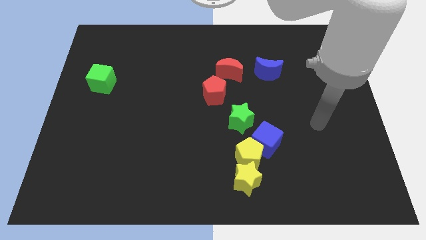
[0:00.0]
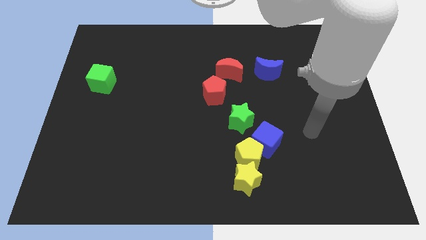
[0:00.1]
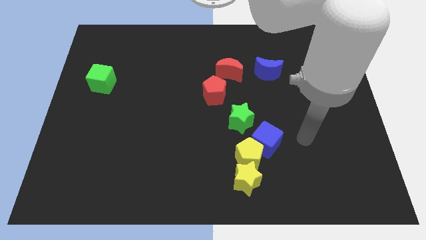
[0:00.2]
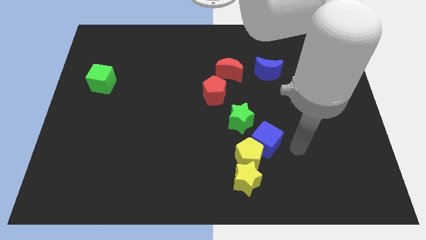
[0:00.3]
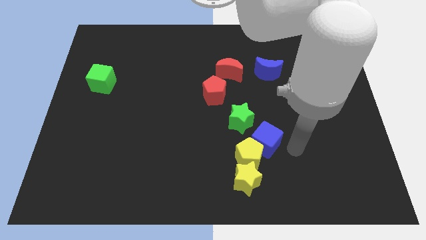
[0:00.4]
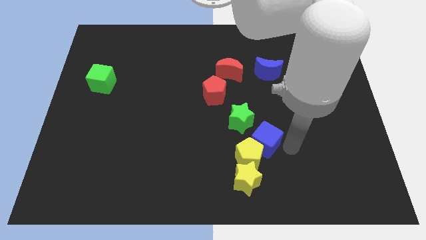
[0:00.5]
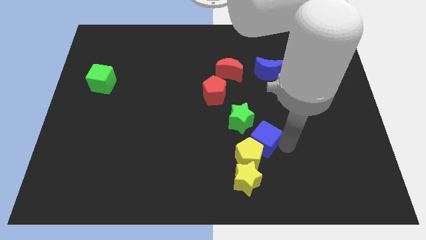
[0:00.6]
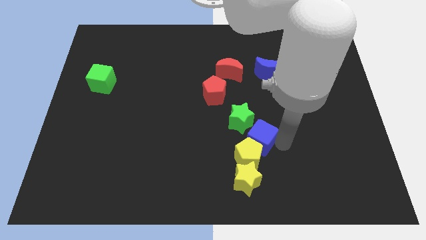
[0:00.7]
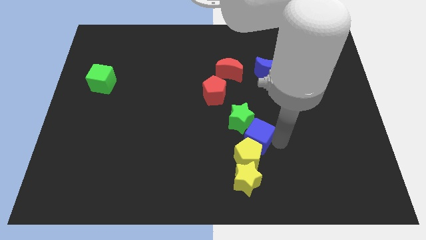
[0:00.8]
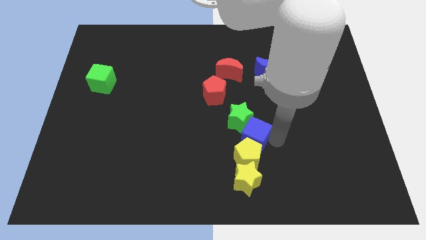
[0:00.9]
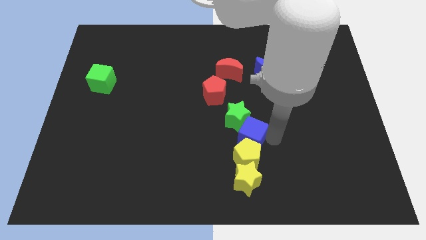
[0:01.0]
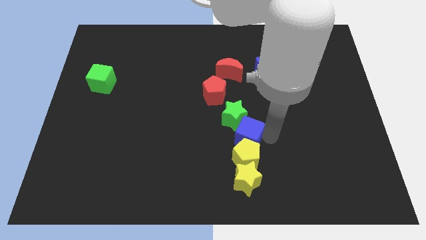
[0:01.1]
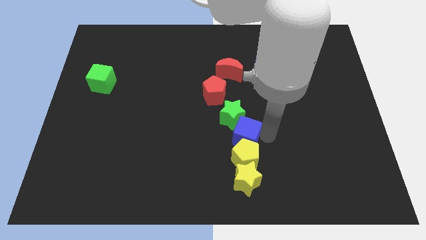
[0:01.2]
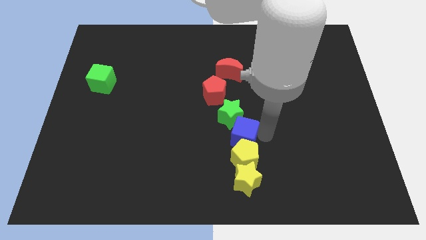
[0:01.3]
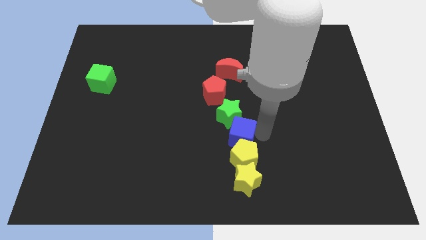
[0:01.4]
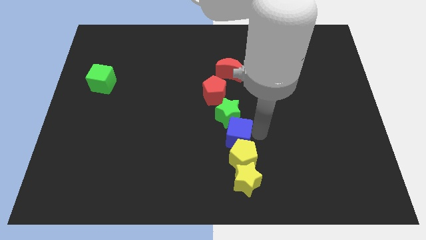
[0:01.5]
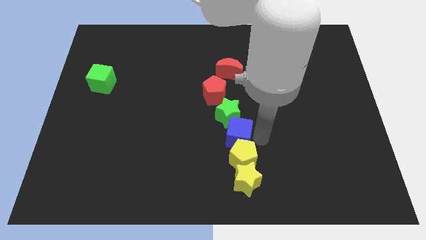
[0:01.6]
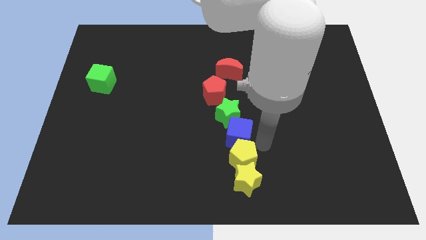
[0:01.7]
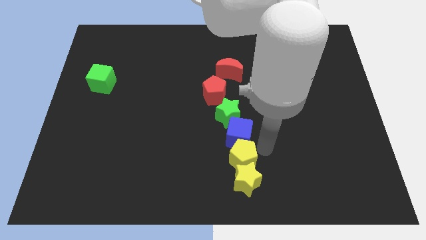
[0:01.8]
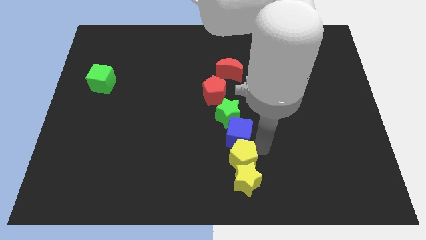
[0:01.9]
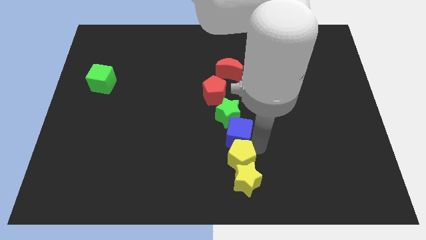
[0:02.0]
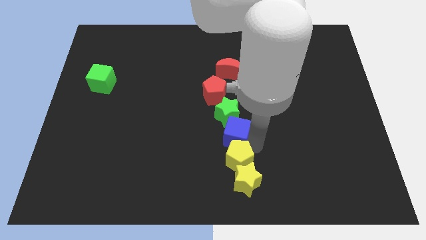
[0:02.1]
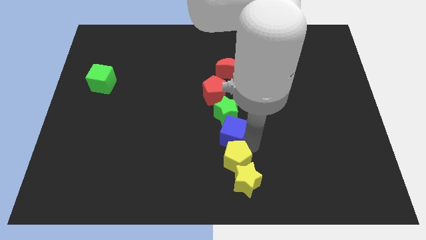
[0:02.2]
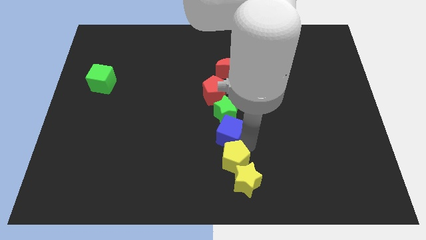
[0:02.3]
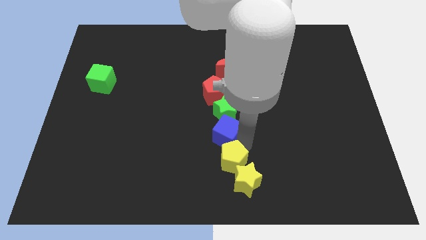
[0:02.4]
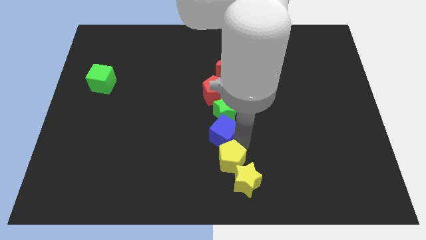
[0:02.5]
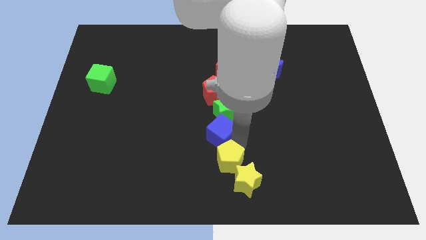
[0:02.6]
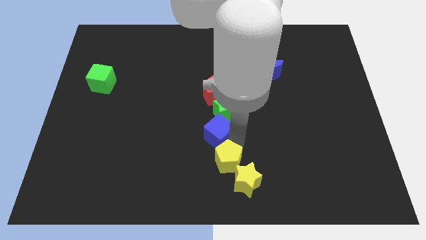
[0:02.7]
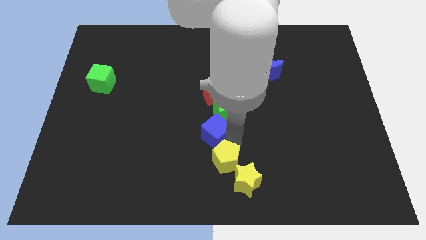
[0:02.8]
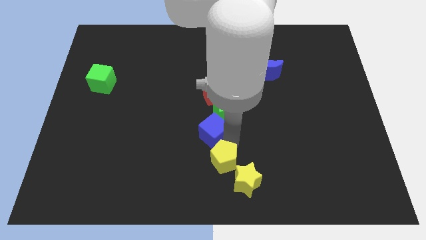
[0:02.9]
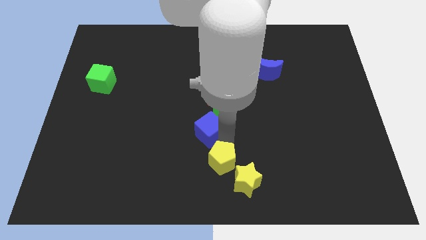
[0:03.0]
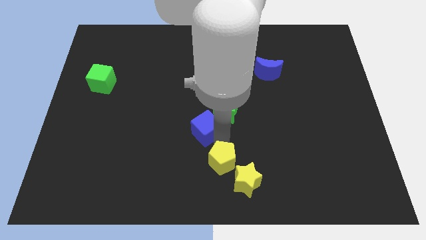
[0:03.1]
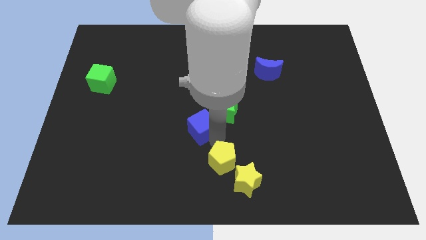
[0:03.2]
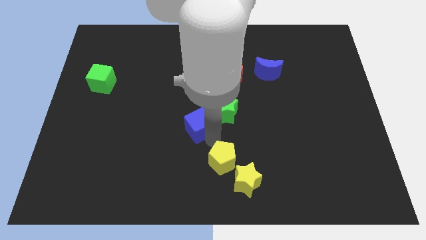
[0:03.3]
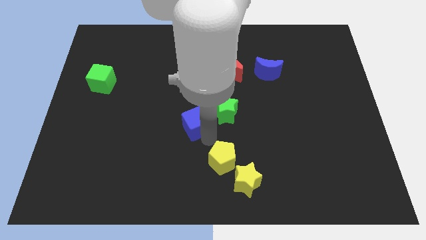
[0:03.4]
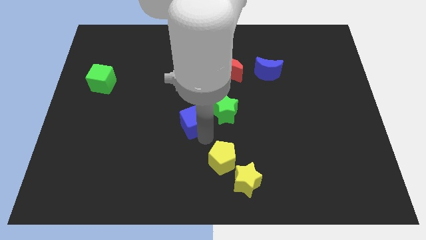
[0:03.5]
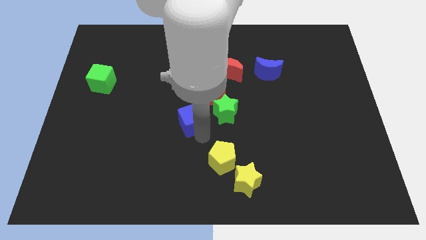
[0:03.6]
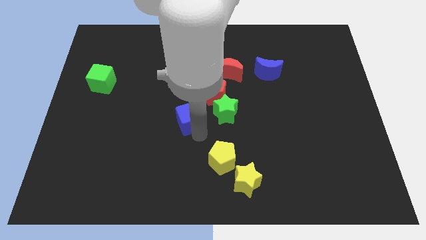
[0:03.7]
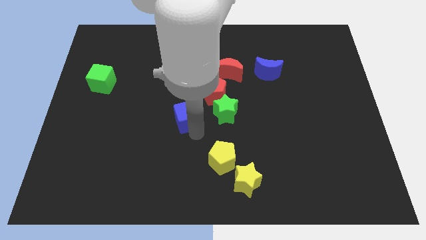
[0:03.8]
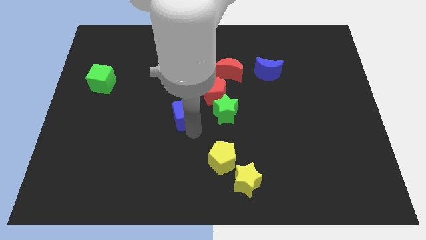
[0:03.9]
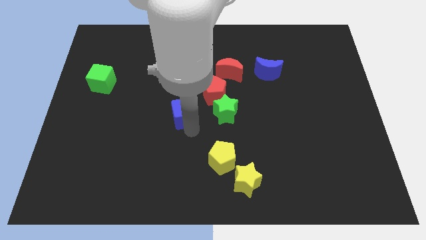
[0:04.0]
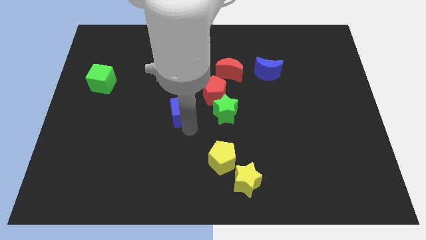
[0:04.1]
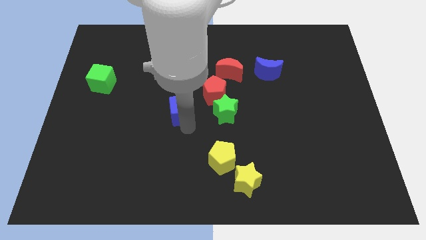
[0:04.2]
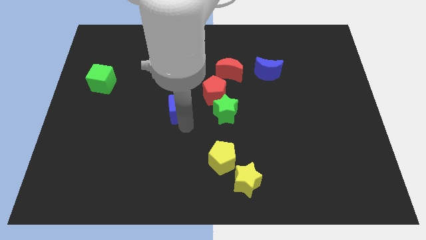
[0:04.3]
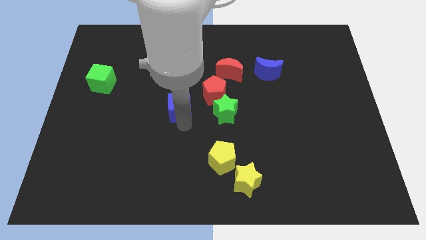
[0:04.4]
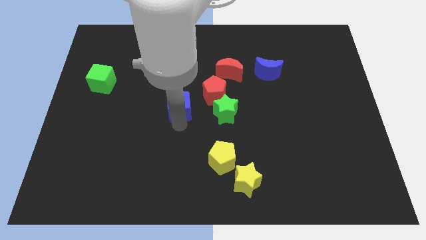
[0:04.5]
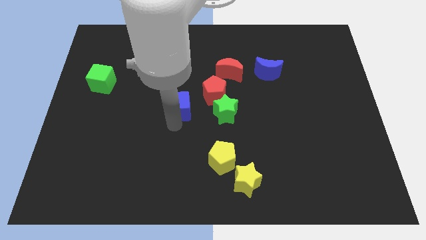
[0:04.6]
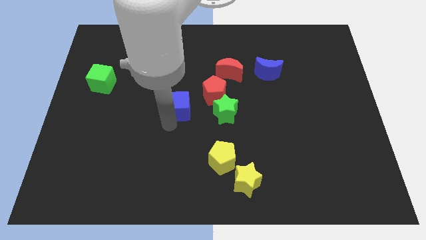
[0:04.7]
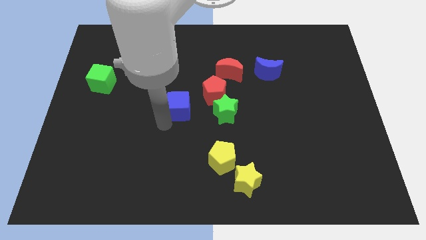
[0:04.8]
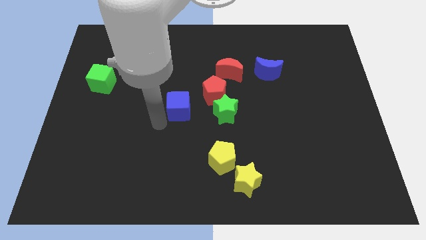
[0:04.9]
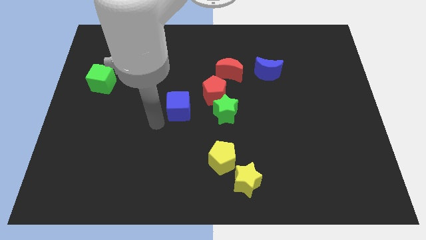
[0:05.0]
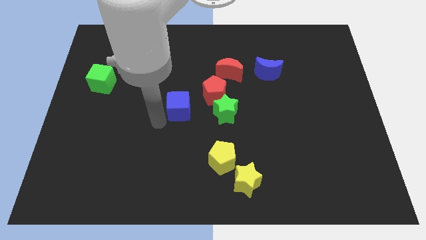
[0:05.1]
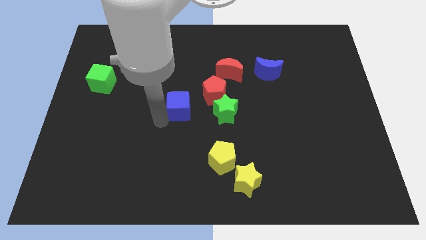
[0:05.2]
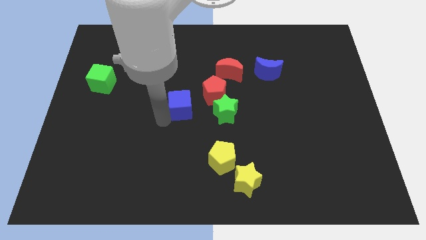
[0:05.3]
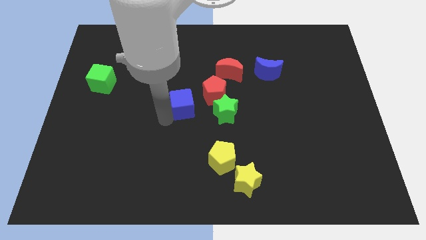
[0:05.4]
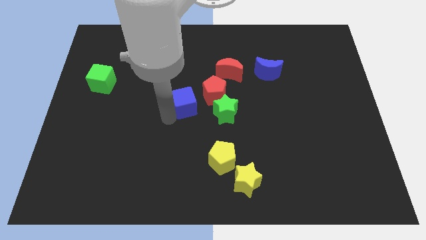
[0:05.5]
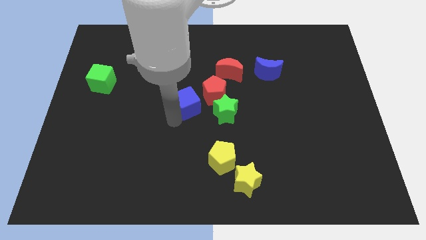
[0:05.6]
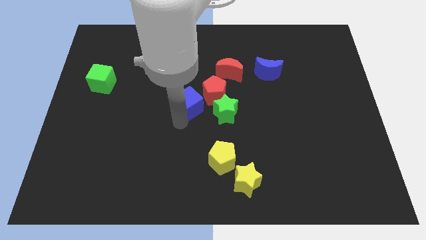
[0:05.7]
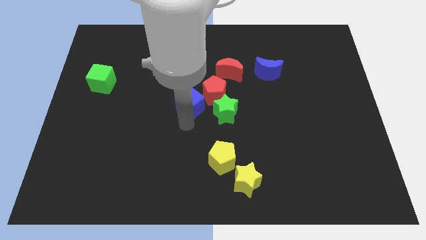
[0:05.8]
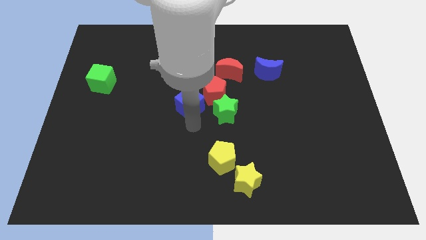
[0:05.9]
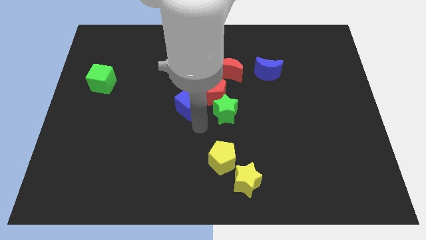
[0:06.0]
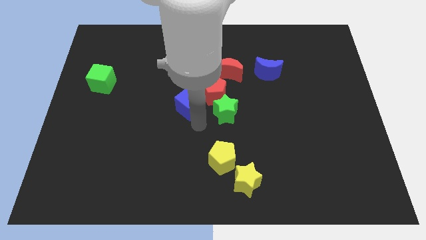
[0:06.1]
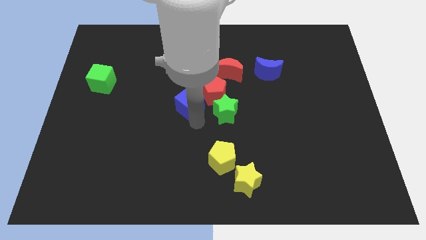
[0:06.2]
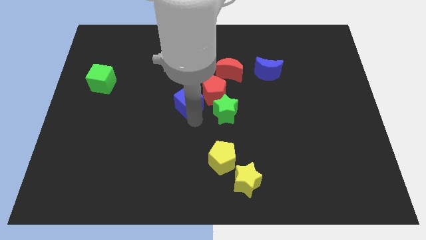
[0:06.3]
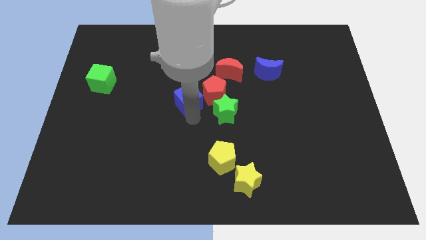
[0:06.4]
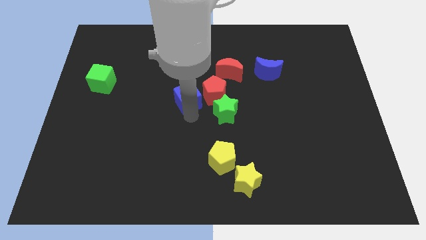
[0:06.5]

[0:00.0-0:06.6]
push the blue cube upwards and to the left diagonally

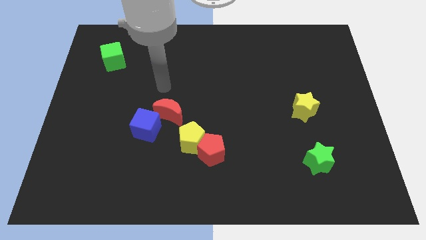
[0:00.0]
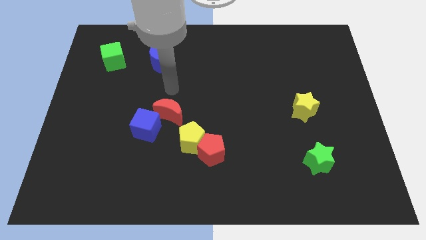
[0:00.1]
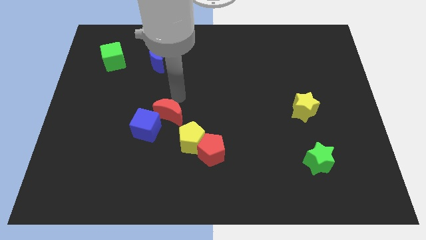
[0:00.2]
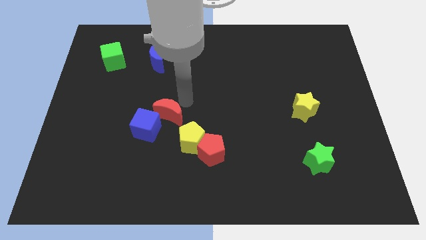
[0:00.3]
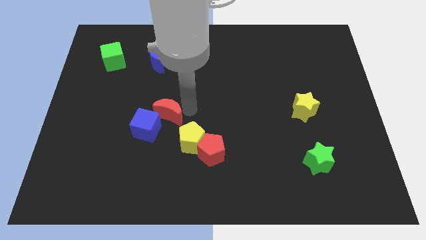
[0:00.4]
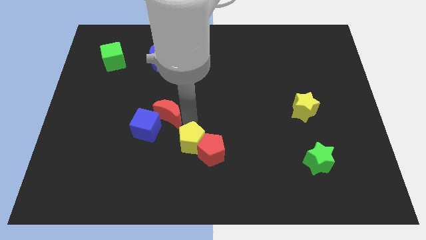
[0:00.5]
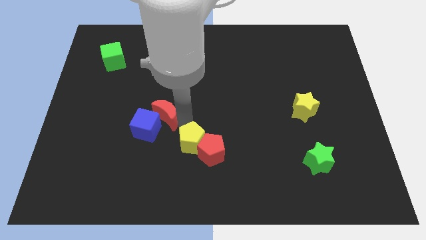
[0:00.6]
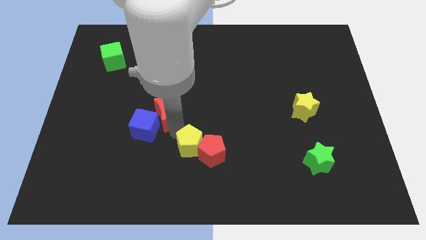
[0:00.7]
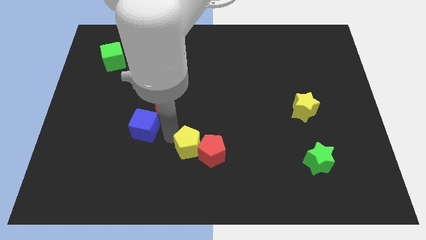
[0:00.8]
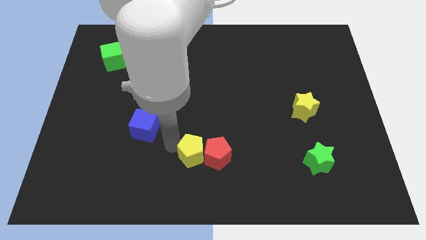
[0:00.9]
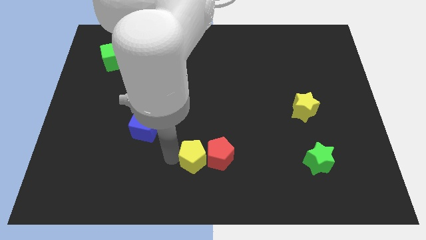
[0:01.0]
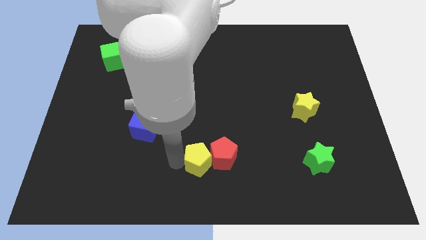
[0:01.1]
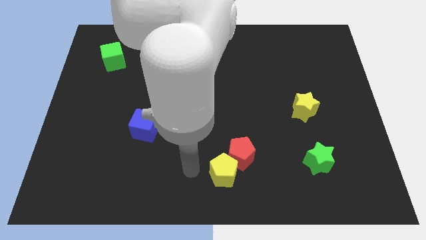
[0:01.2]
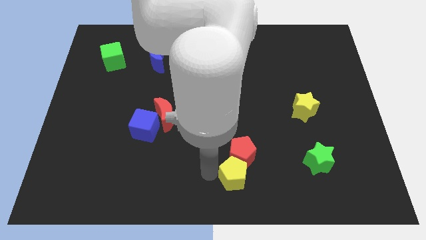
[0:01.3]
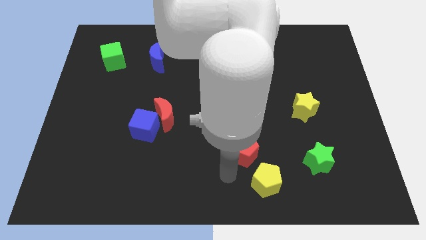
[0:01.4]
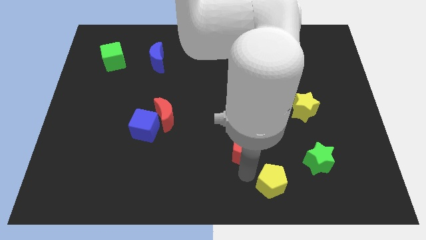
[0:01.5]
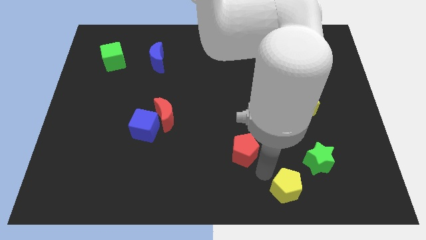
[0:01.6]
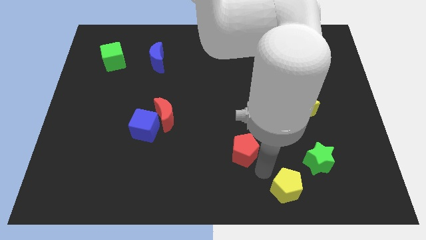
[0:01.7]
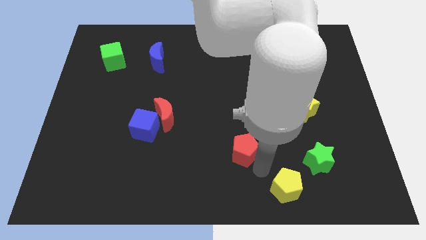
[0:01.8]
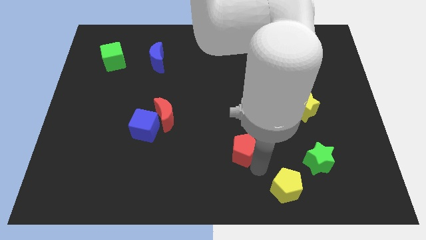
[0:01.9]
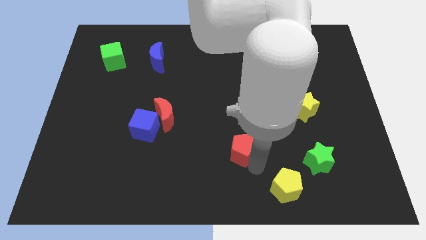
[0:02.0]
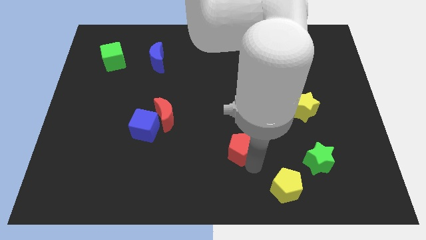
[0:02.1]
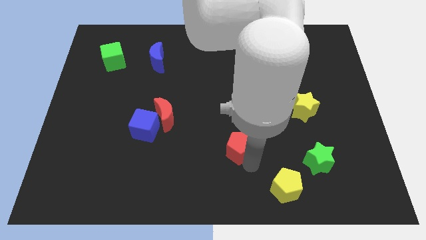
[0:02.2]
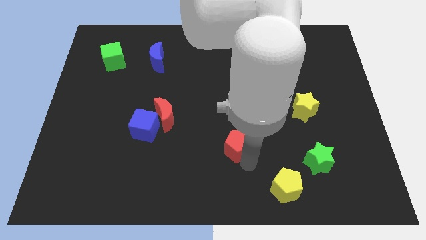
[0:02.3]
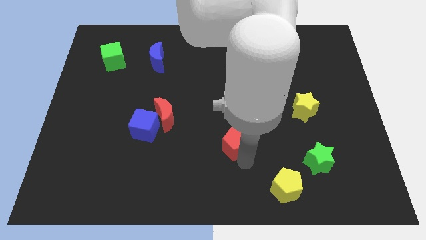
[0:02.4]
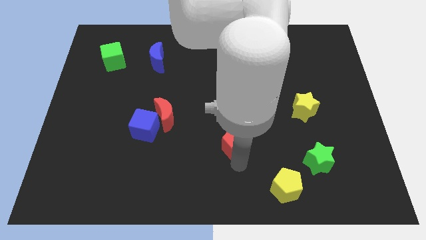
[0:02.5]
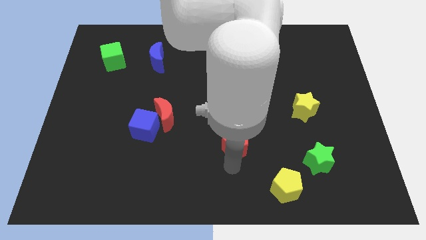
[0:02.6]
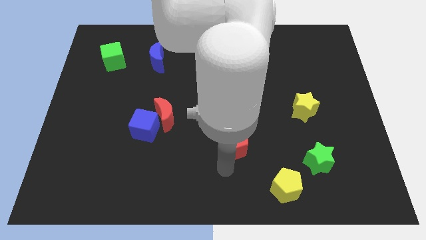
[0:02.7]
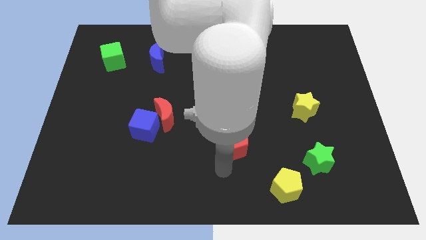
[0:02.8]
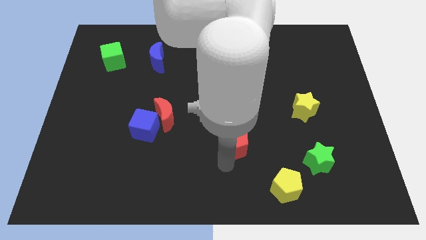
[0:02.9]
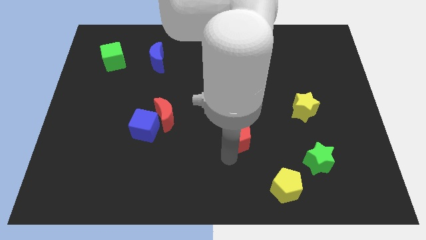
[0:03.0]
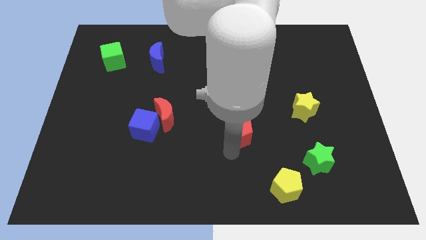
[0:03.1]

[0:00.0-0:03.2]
move the red pentagon up and to the right somewhat
